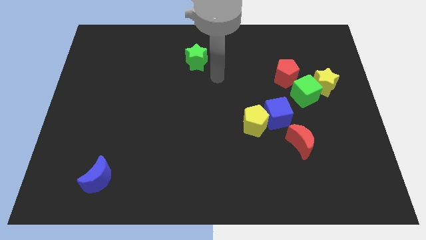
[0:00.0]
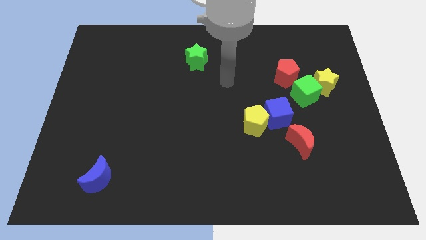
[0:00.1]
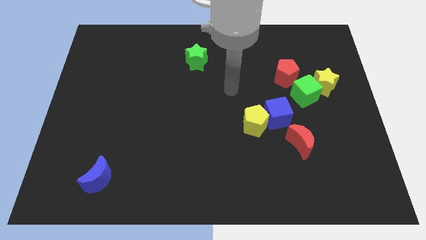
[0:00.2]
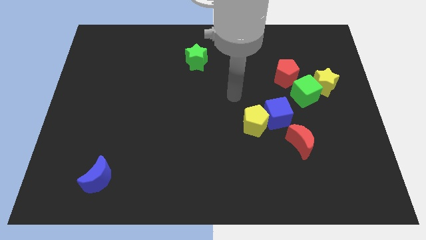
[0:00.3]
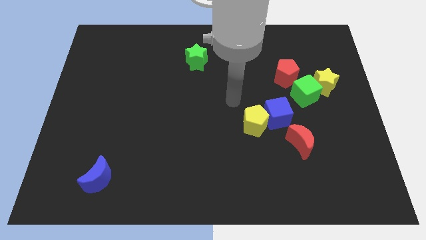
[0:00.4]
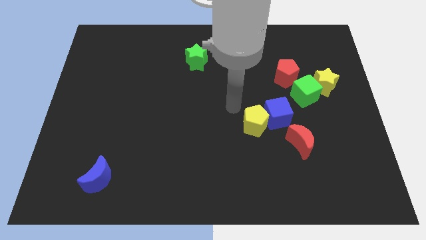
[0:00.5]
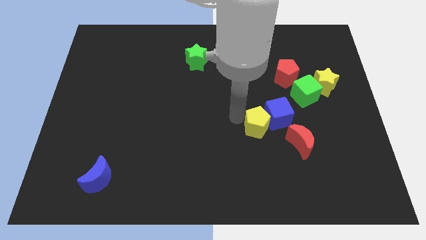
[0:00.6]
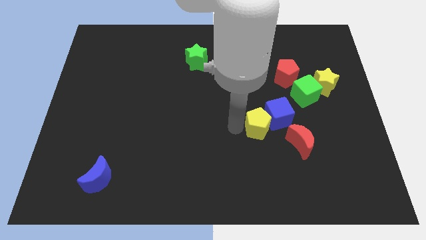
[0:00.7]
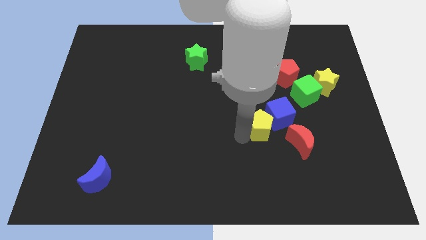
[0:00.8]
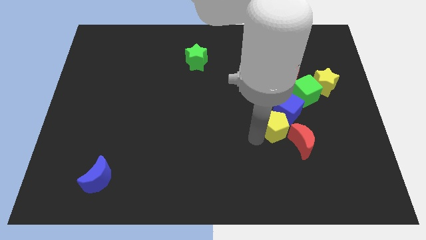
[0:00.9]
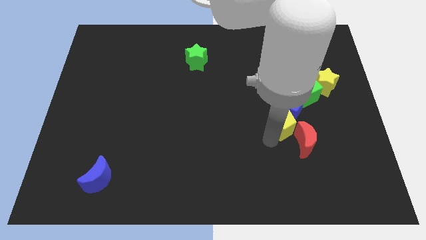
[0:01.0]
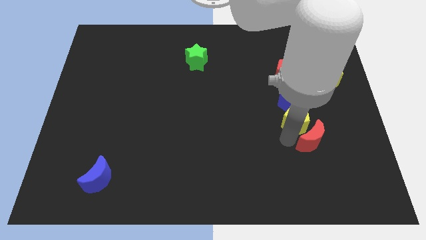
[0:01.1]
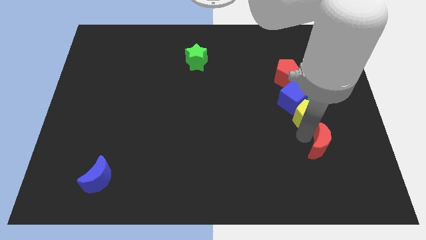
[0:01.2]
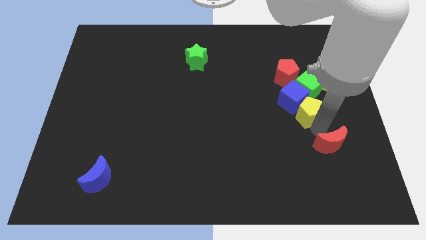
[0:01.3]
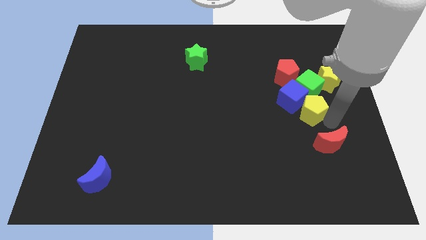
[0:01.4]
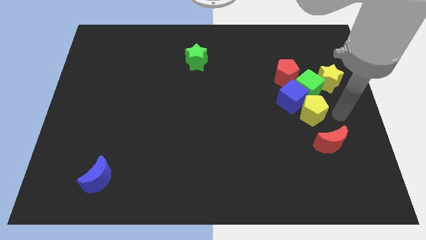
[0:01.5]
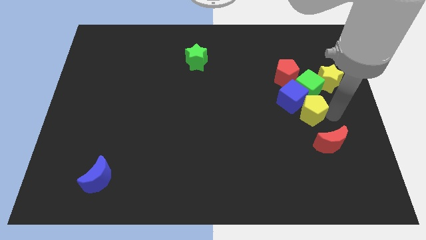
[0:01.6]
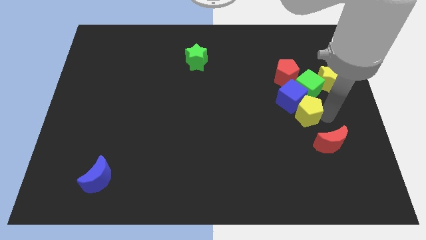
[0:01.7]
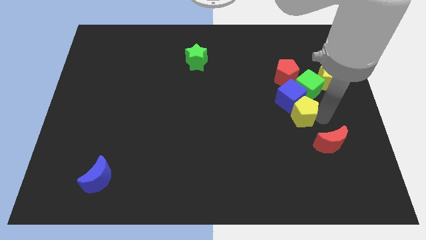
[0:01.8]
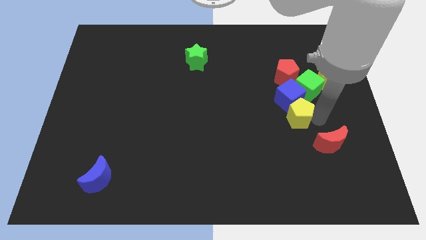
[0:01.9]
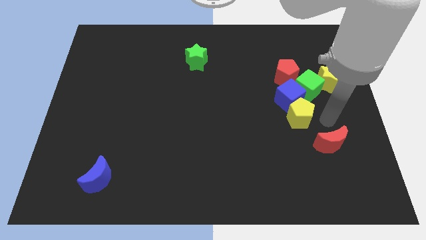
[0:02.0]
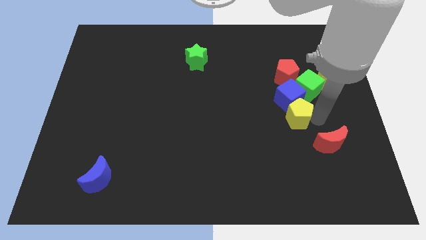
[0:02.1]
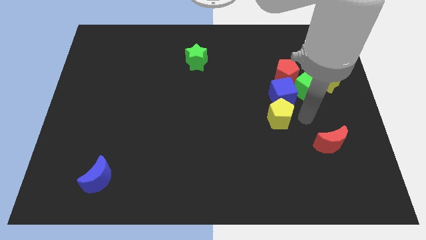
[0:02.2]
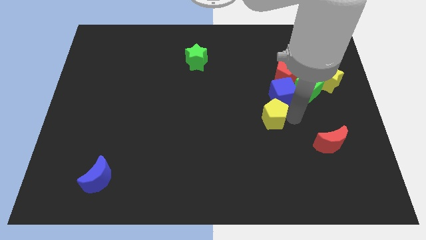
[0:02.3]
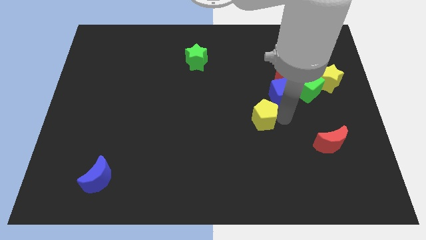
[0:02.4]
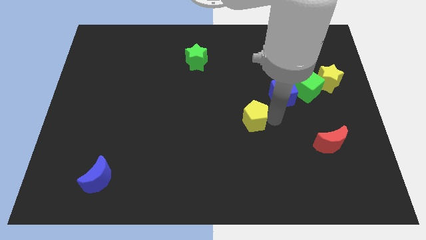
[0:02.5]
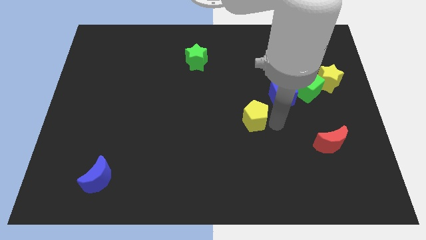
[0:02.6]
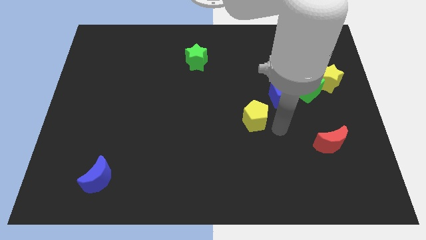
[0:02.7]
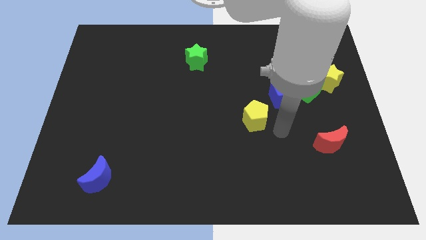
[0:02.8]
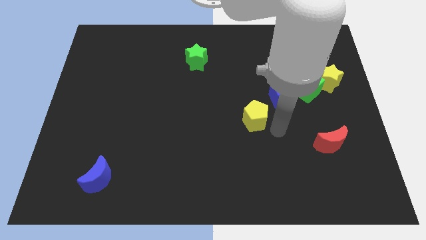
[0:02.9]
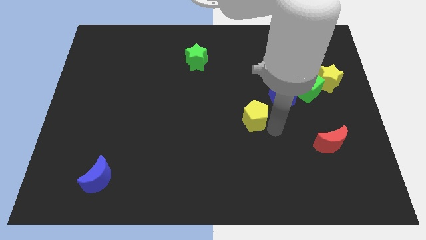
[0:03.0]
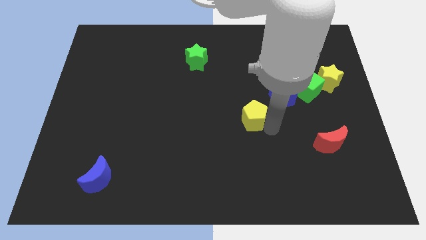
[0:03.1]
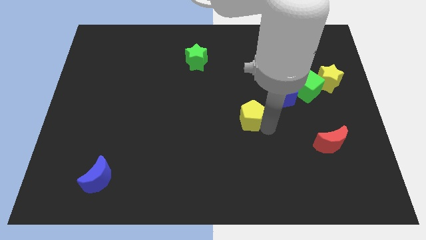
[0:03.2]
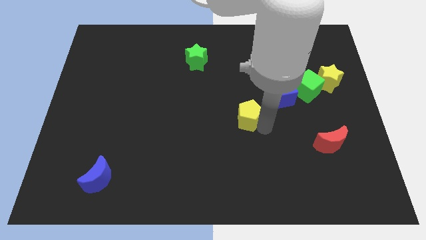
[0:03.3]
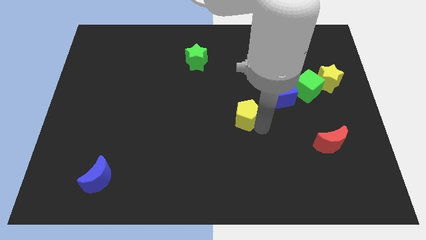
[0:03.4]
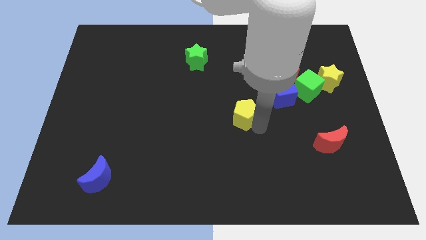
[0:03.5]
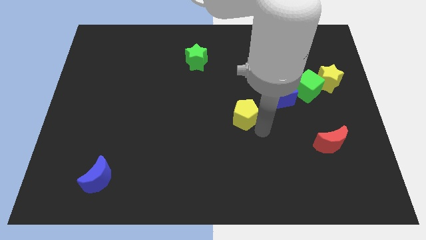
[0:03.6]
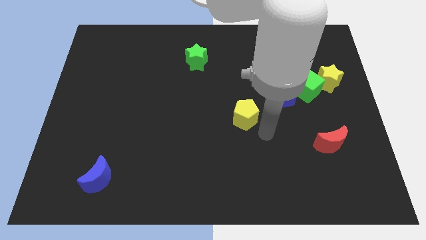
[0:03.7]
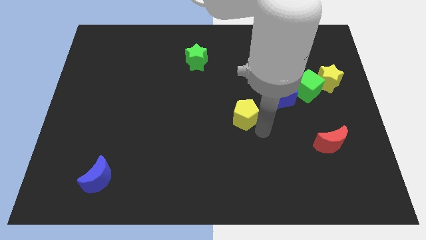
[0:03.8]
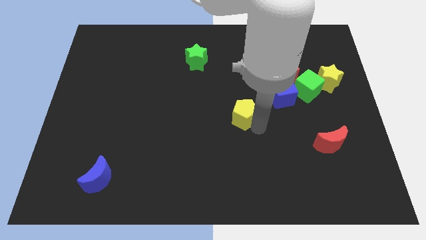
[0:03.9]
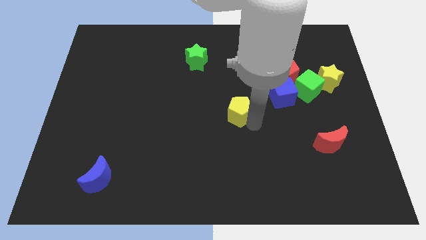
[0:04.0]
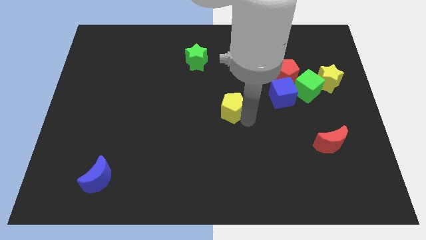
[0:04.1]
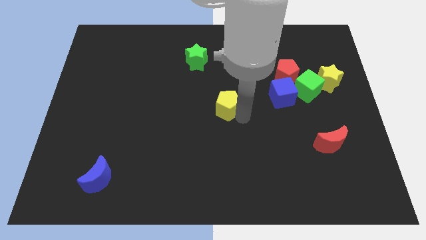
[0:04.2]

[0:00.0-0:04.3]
slightly move the yellow pentagon upwards and then left

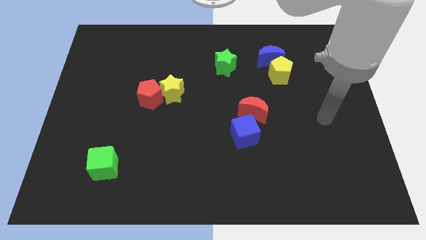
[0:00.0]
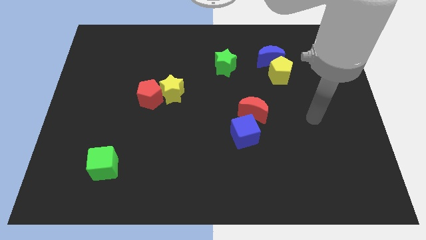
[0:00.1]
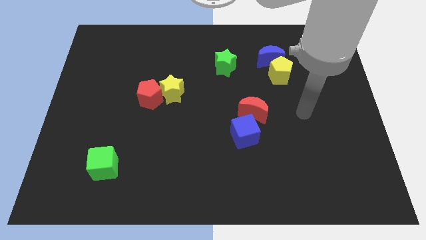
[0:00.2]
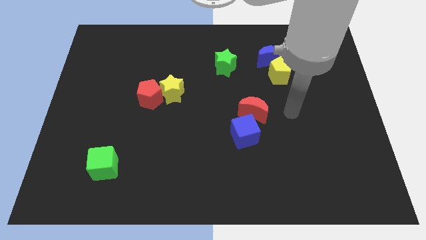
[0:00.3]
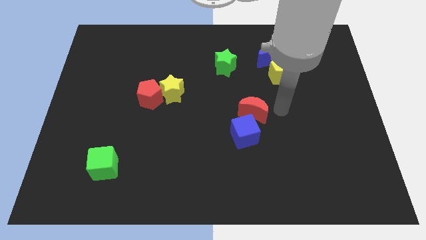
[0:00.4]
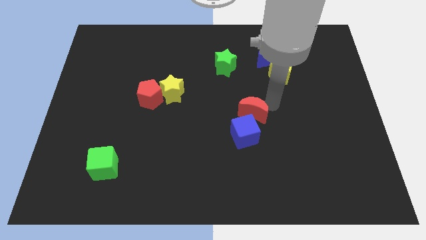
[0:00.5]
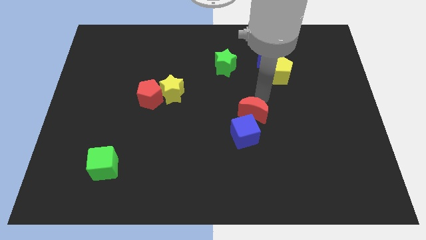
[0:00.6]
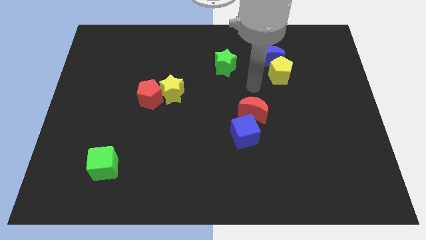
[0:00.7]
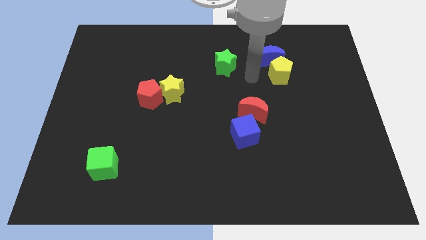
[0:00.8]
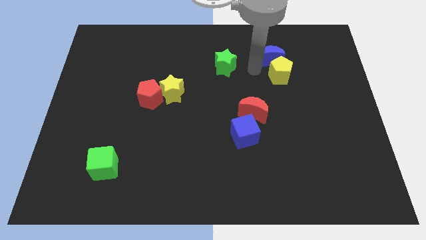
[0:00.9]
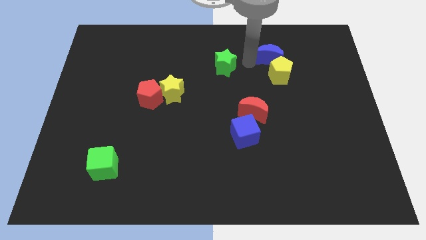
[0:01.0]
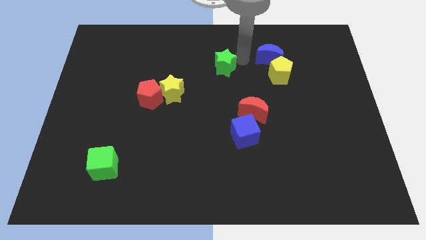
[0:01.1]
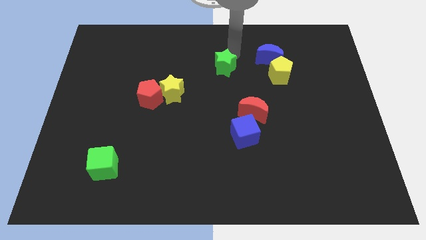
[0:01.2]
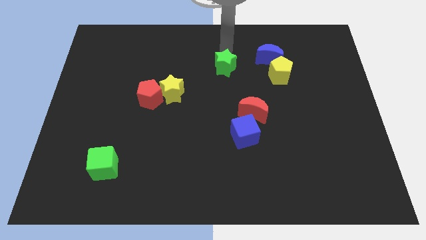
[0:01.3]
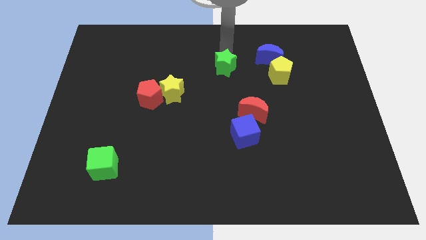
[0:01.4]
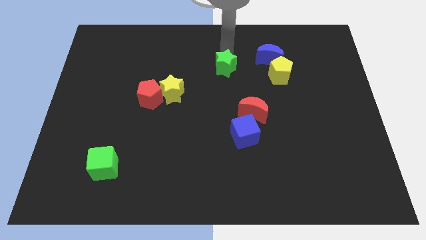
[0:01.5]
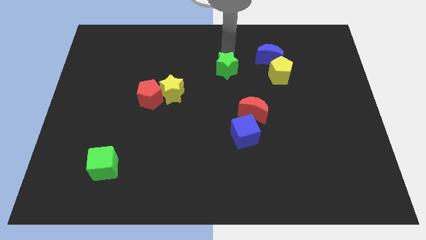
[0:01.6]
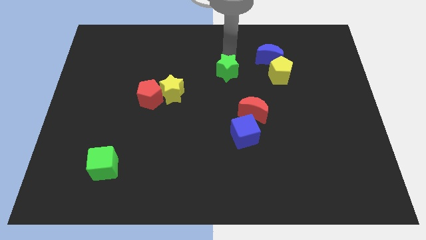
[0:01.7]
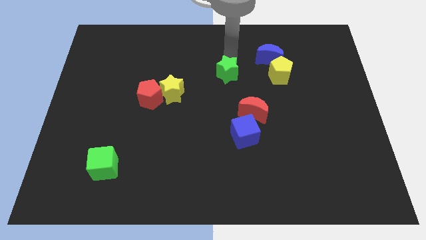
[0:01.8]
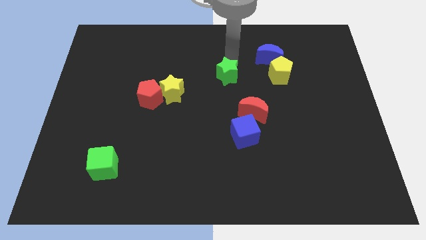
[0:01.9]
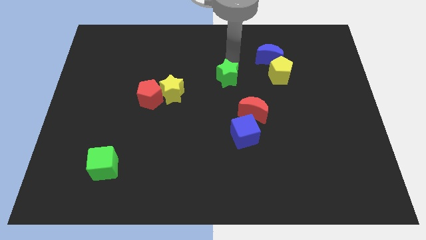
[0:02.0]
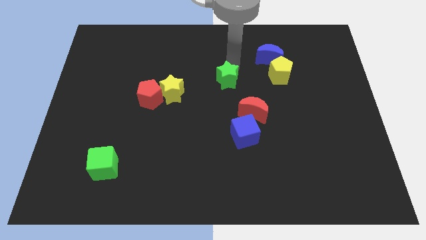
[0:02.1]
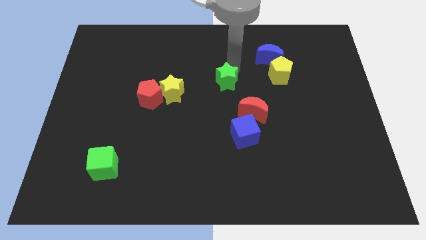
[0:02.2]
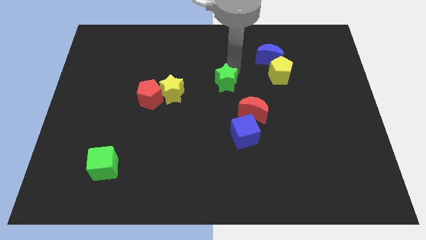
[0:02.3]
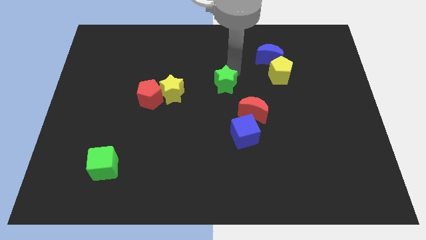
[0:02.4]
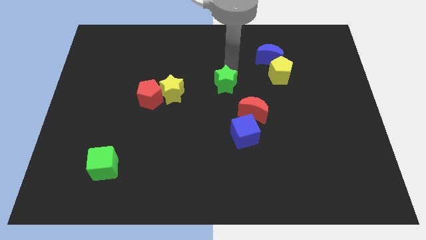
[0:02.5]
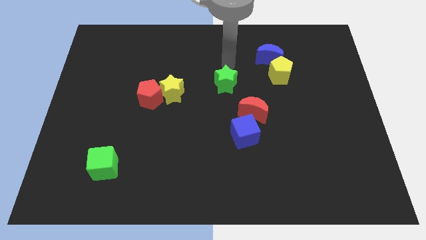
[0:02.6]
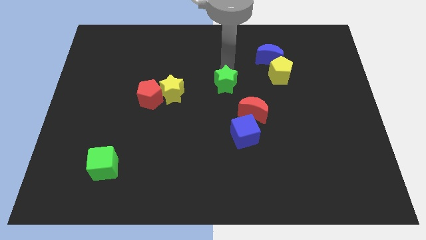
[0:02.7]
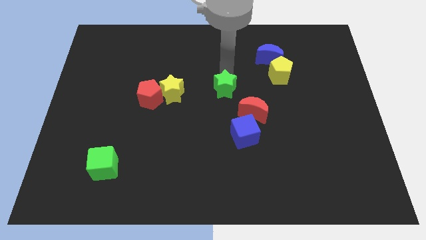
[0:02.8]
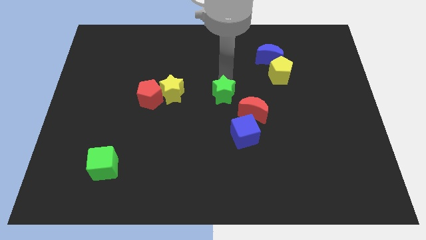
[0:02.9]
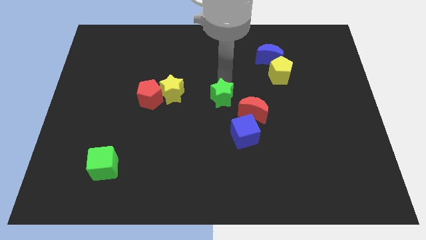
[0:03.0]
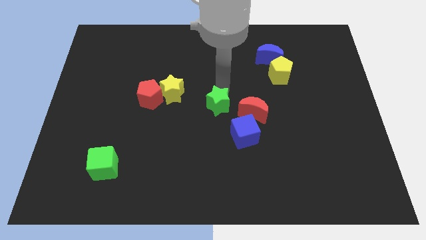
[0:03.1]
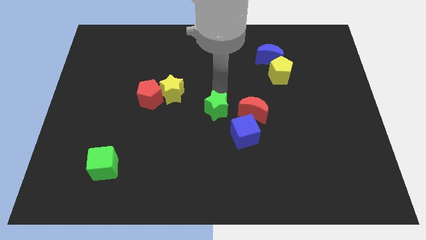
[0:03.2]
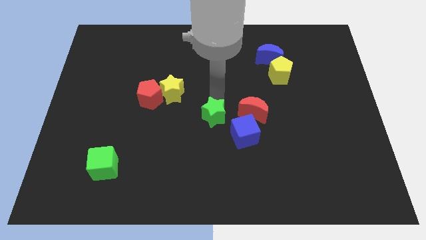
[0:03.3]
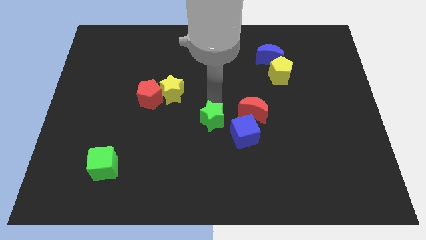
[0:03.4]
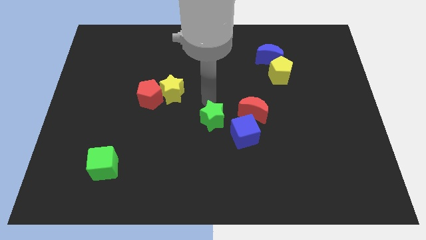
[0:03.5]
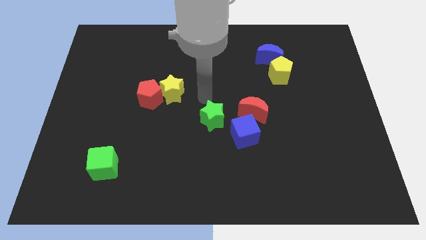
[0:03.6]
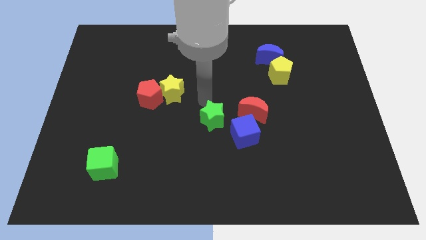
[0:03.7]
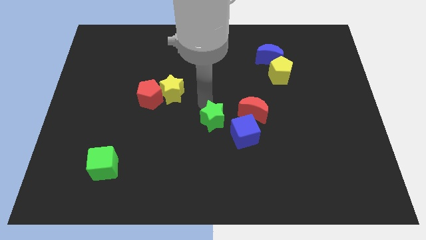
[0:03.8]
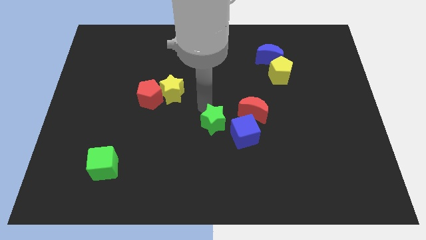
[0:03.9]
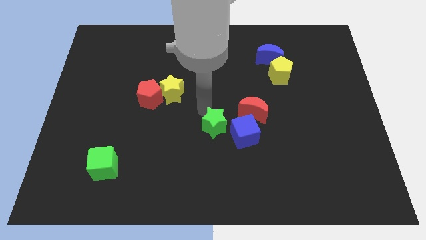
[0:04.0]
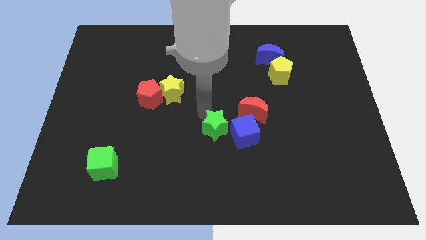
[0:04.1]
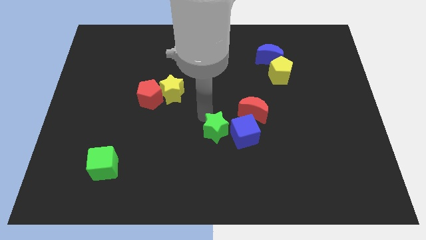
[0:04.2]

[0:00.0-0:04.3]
slide the green star down
